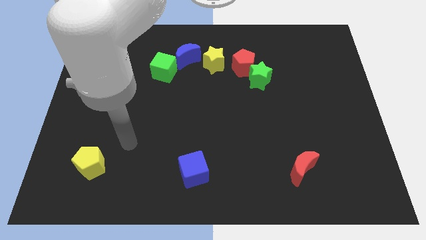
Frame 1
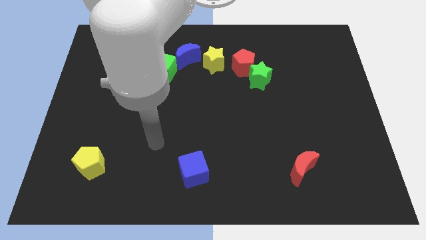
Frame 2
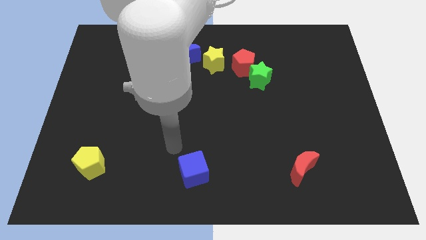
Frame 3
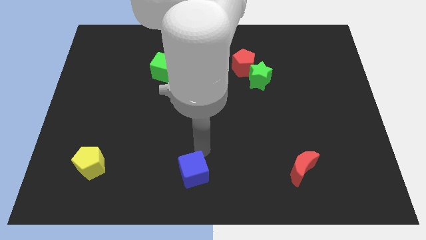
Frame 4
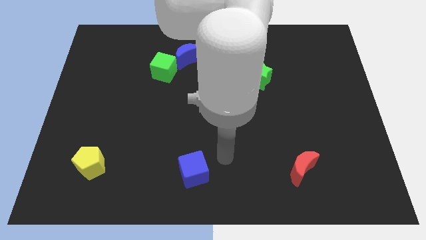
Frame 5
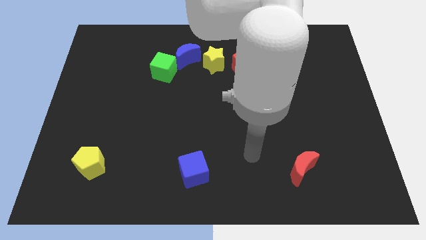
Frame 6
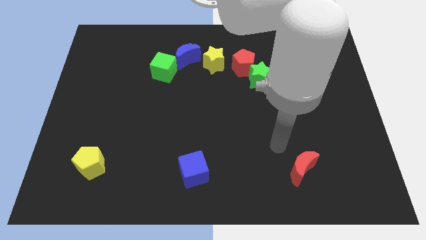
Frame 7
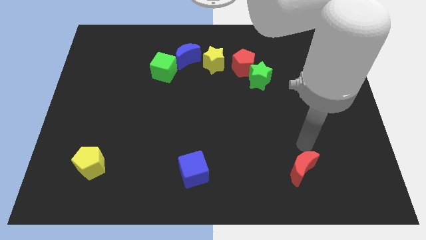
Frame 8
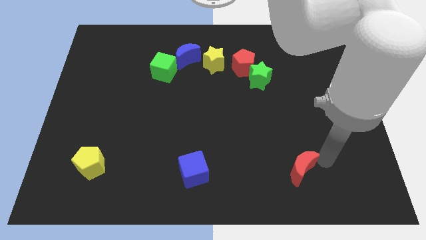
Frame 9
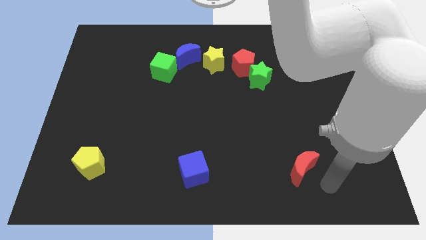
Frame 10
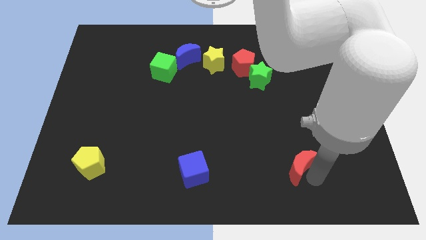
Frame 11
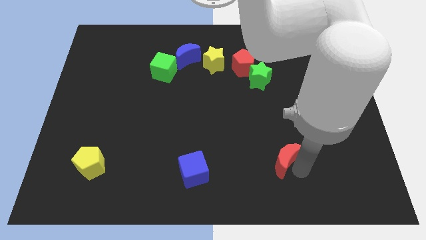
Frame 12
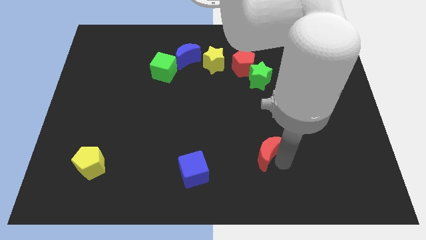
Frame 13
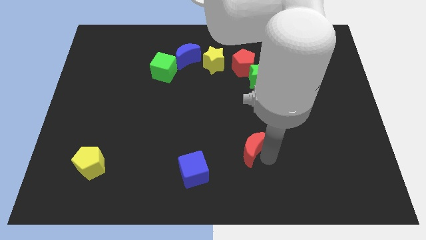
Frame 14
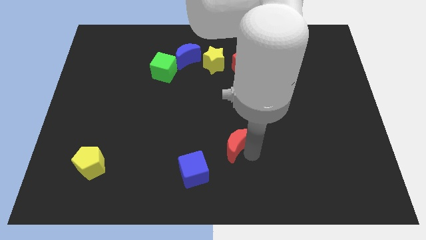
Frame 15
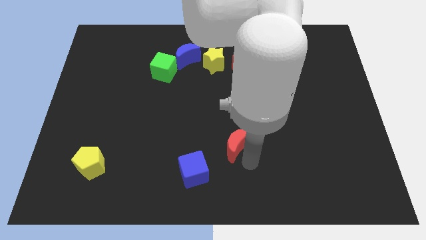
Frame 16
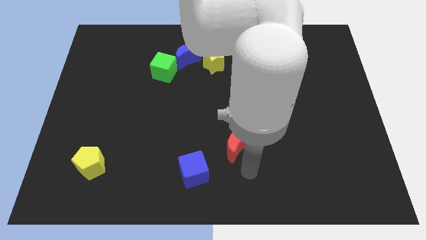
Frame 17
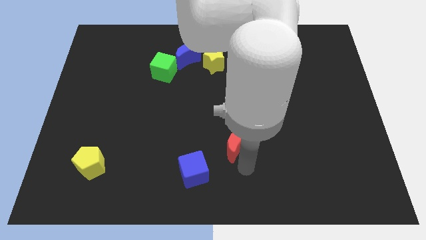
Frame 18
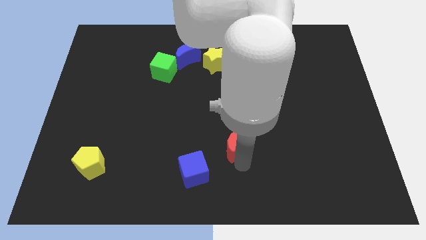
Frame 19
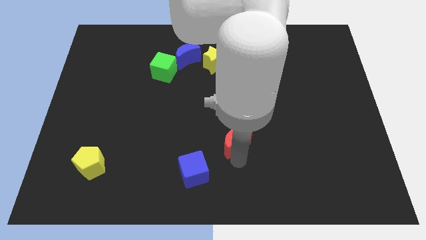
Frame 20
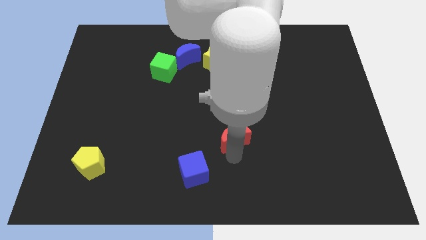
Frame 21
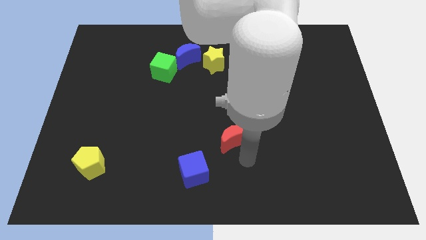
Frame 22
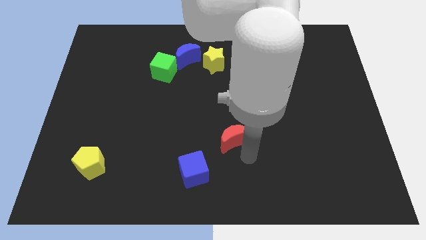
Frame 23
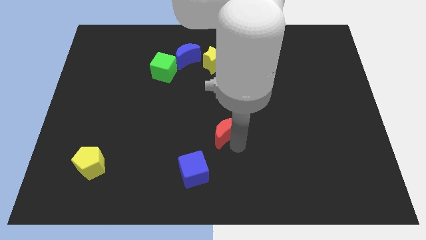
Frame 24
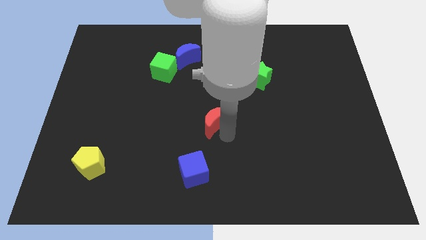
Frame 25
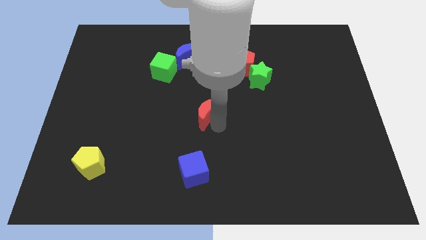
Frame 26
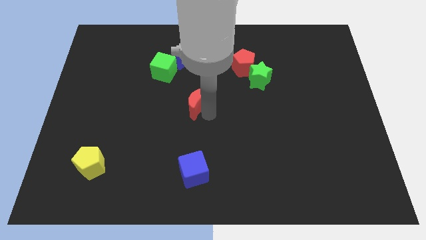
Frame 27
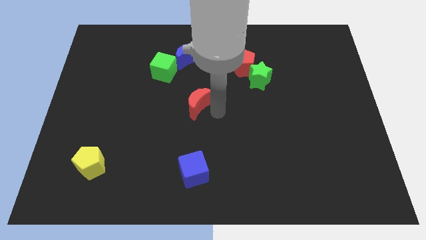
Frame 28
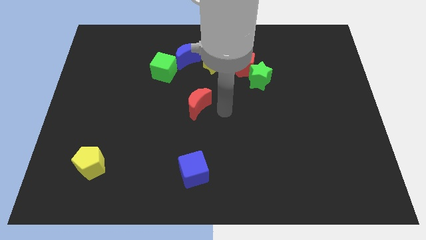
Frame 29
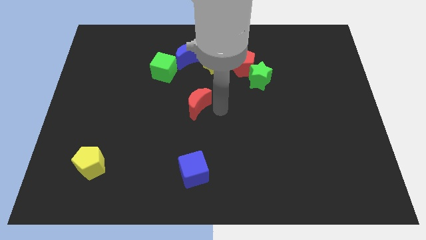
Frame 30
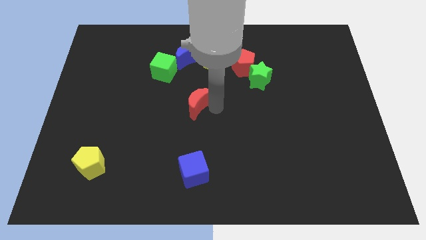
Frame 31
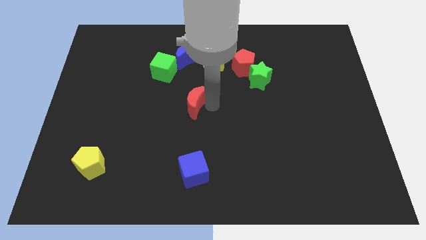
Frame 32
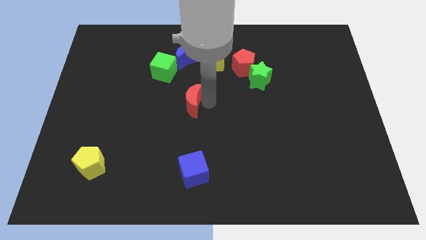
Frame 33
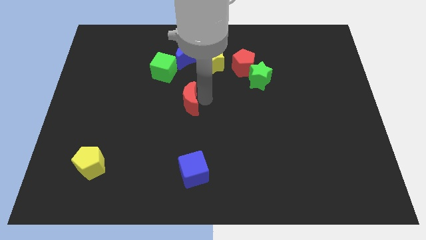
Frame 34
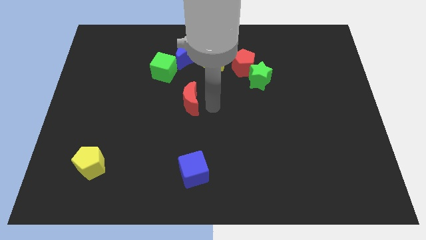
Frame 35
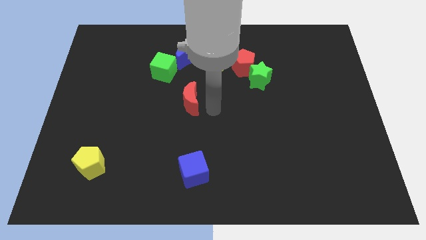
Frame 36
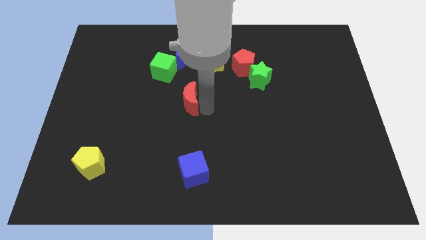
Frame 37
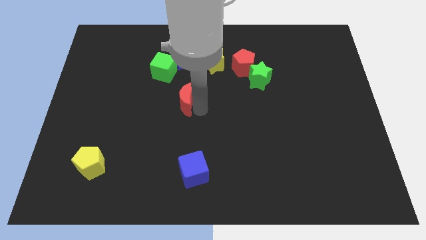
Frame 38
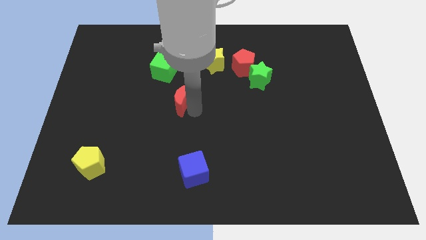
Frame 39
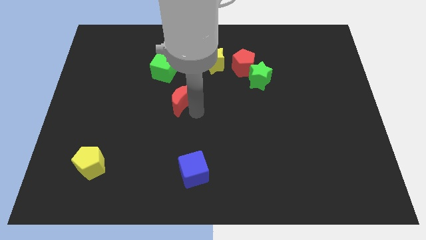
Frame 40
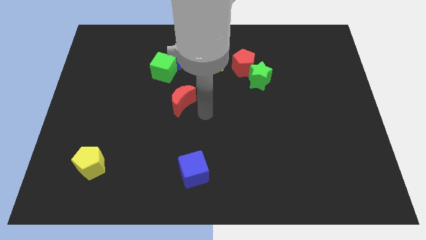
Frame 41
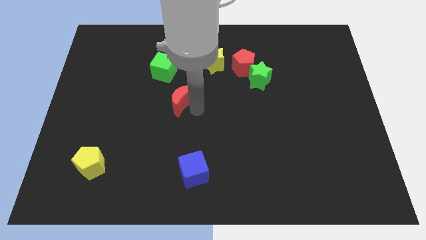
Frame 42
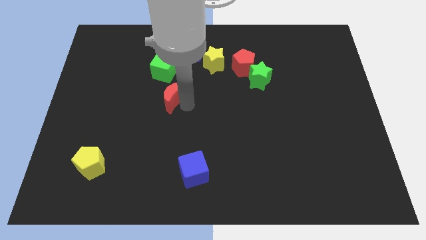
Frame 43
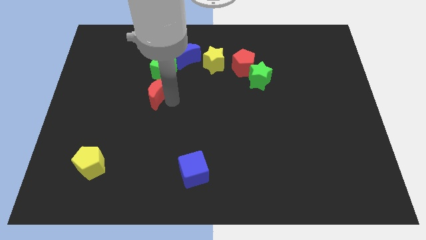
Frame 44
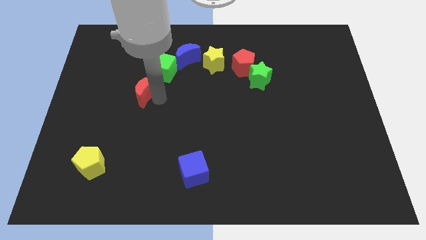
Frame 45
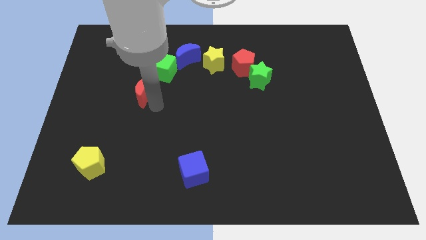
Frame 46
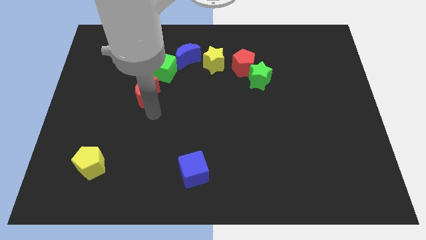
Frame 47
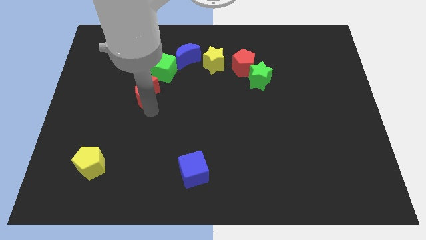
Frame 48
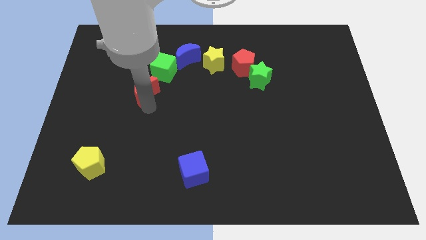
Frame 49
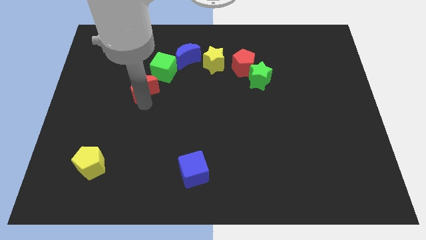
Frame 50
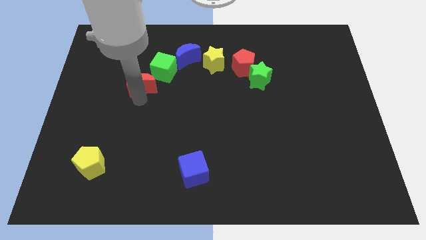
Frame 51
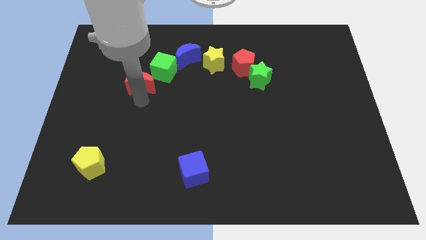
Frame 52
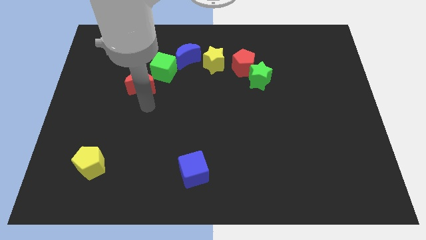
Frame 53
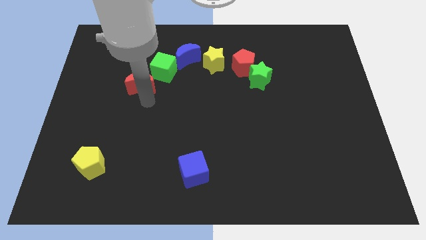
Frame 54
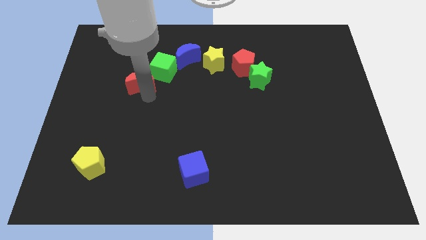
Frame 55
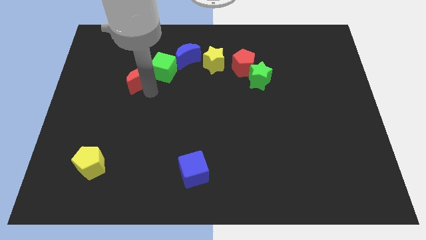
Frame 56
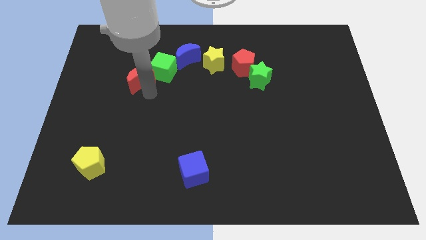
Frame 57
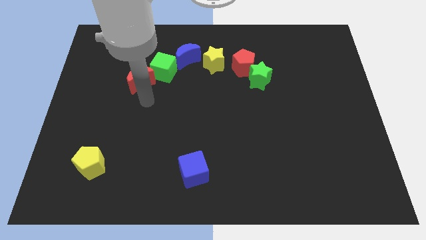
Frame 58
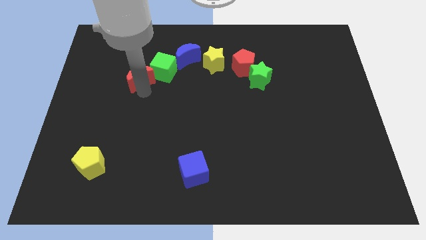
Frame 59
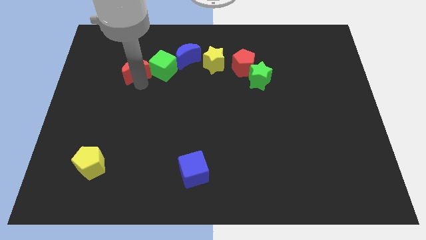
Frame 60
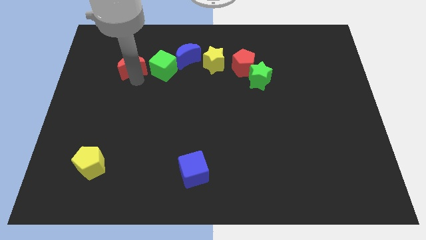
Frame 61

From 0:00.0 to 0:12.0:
push the red moon to the left side of the blue moon

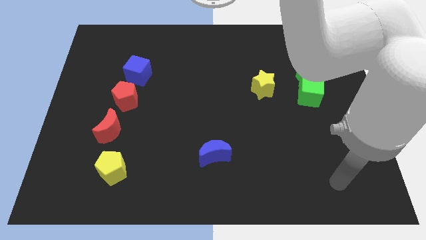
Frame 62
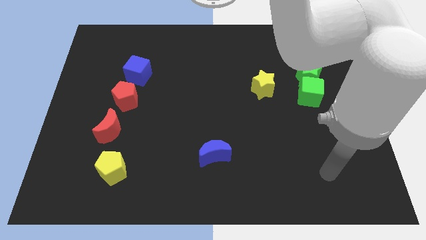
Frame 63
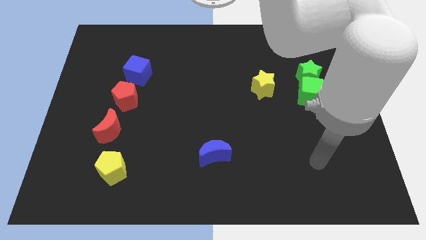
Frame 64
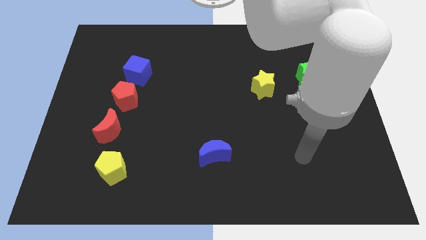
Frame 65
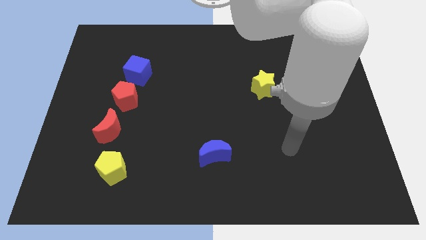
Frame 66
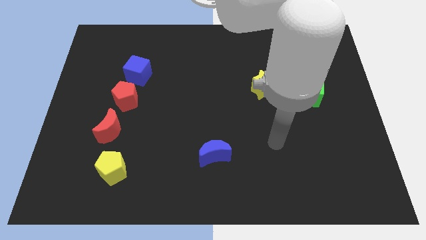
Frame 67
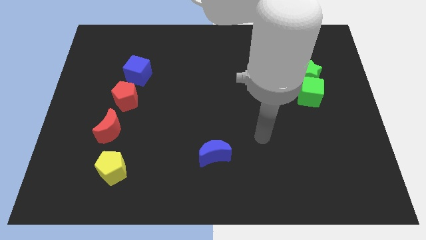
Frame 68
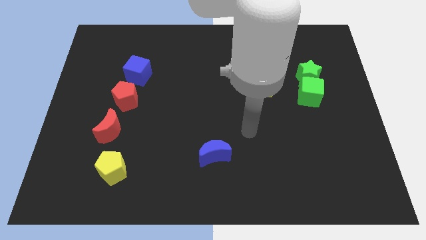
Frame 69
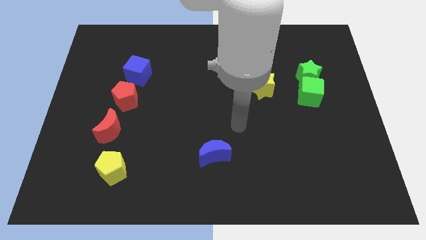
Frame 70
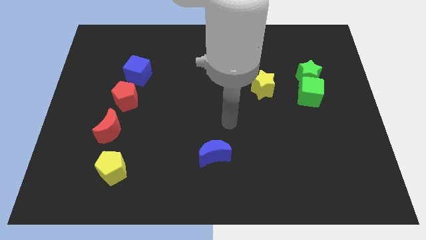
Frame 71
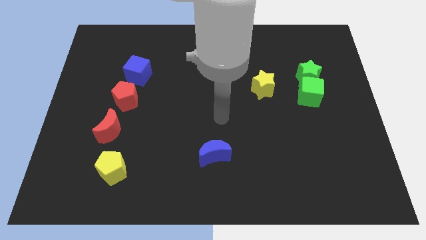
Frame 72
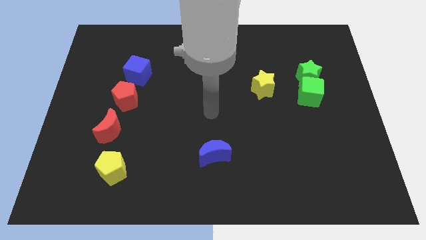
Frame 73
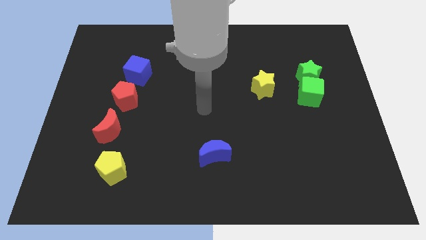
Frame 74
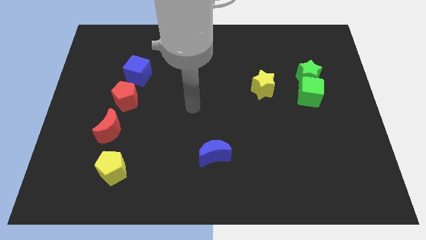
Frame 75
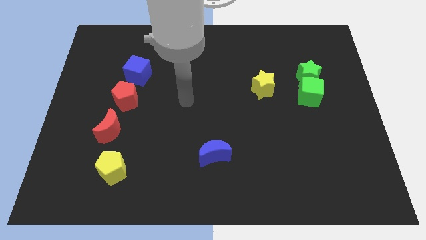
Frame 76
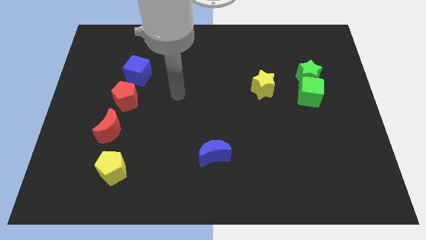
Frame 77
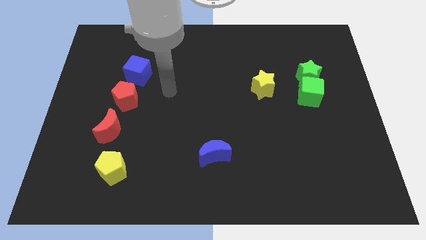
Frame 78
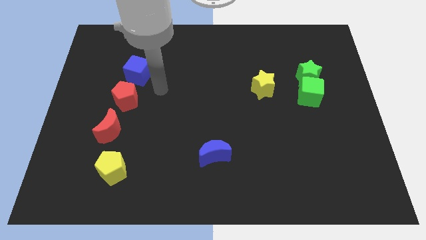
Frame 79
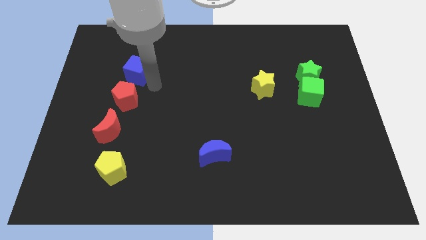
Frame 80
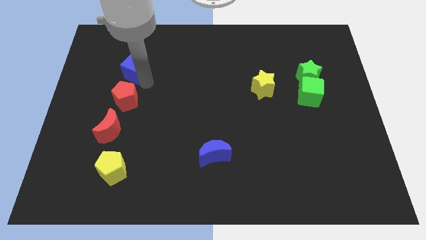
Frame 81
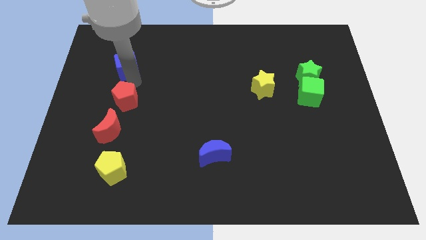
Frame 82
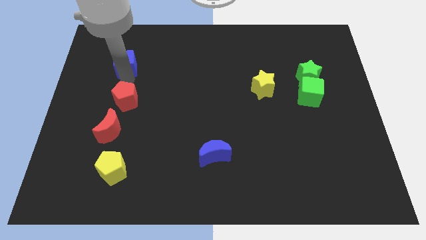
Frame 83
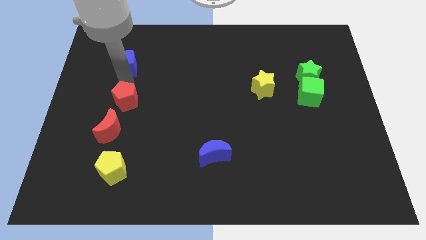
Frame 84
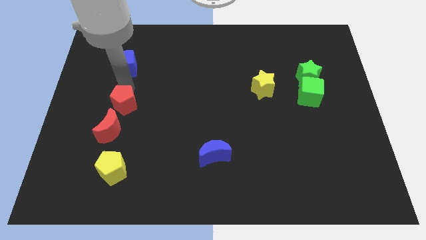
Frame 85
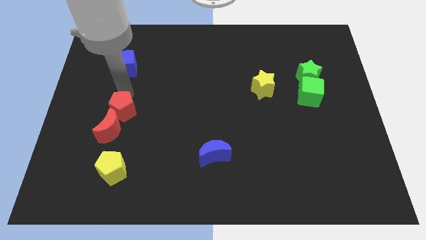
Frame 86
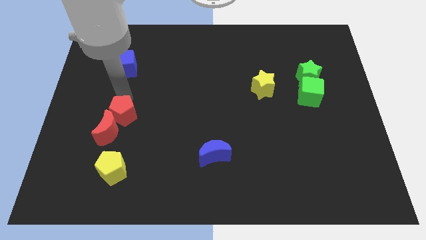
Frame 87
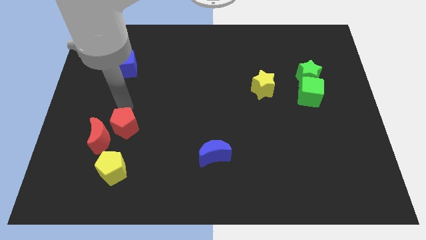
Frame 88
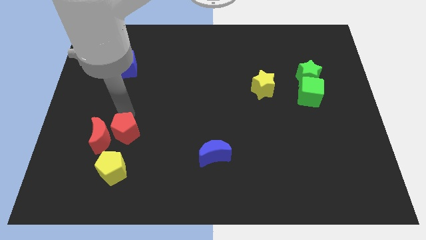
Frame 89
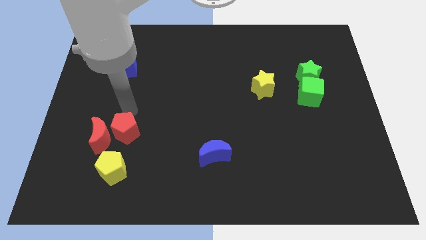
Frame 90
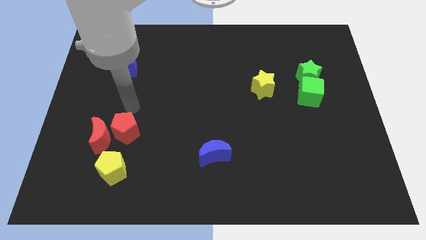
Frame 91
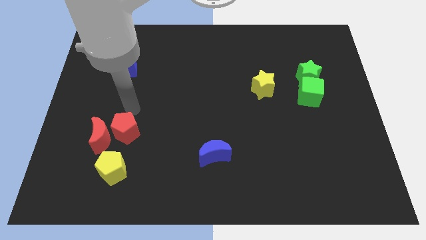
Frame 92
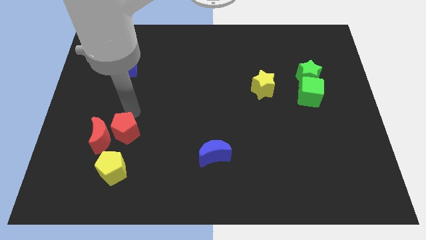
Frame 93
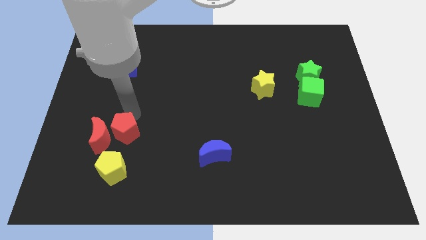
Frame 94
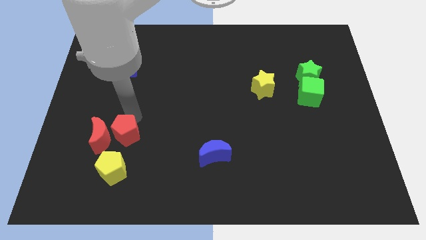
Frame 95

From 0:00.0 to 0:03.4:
move the red pentagon diagonally down and to the right of the red moon
